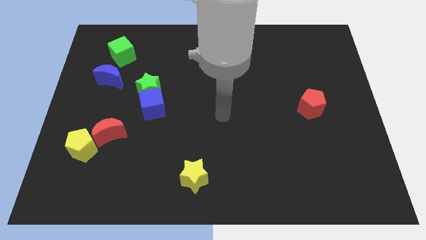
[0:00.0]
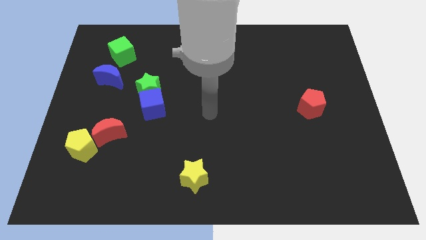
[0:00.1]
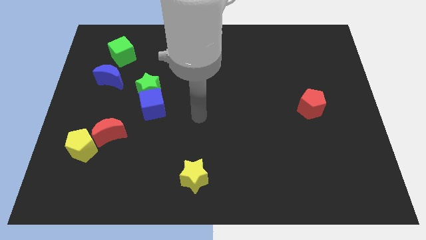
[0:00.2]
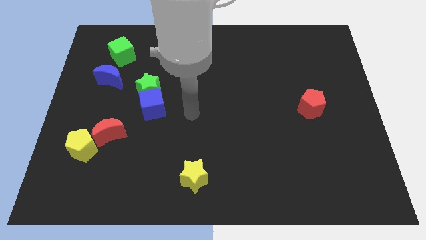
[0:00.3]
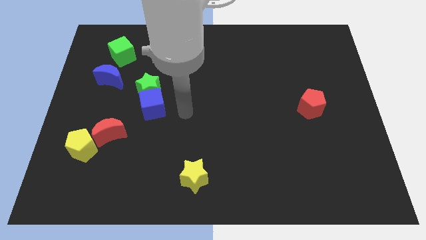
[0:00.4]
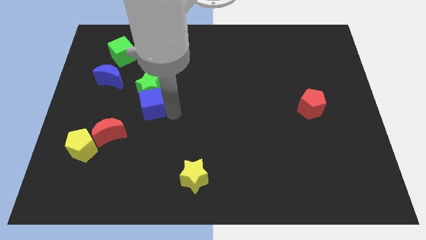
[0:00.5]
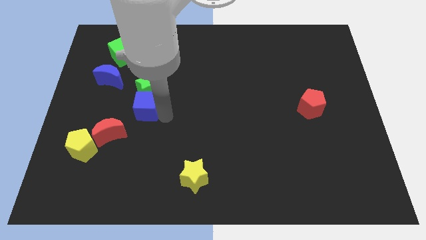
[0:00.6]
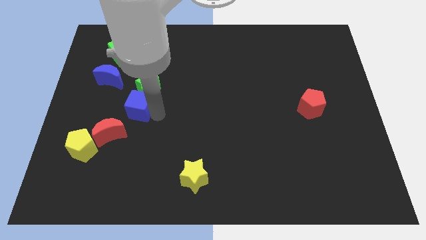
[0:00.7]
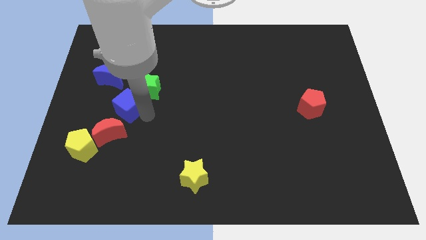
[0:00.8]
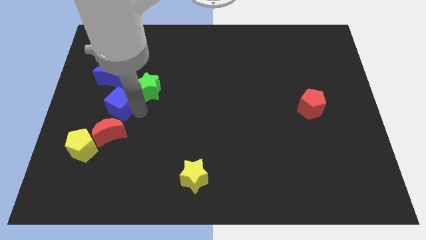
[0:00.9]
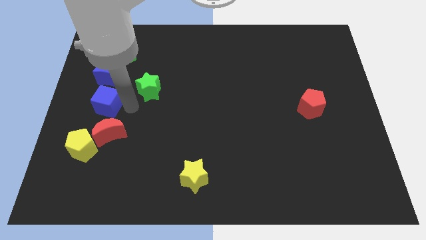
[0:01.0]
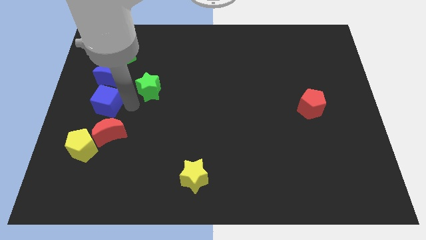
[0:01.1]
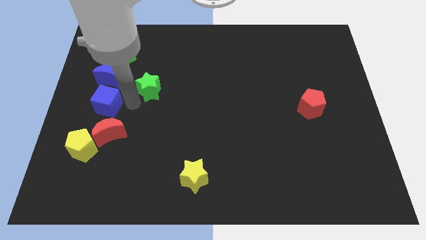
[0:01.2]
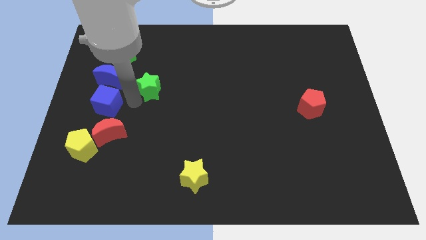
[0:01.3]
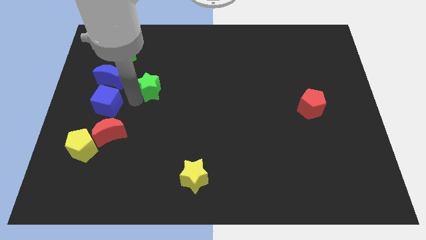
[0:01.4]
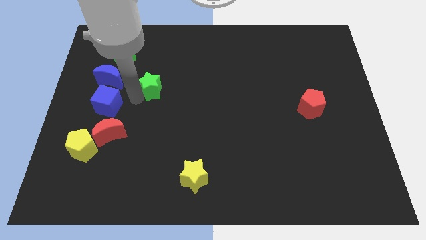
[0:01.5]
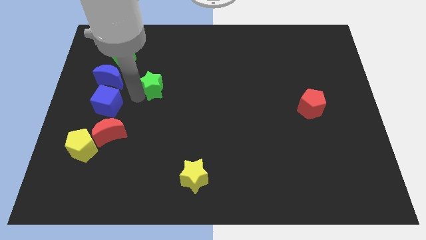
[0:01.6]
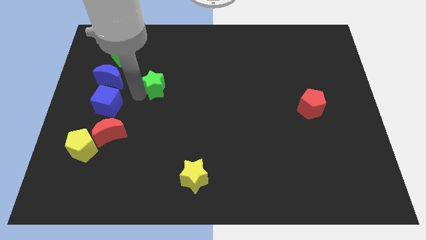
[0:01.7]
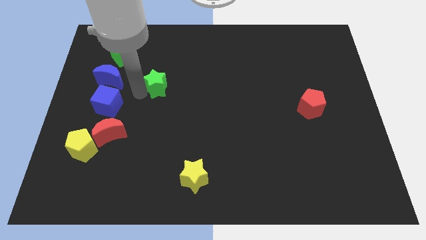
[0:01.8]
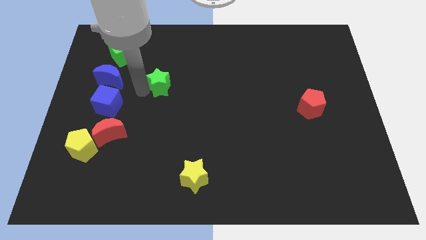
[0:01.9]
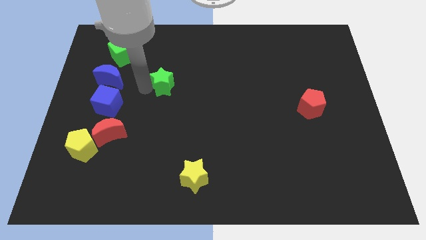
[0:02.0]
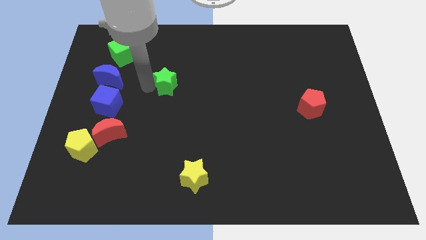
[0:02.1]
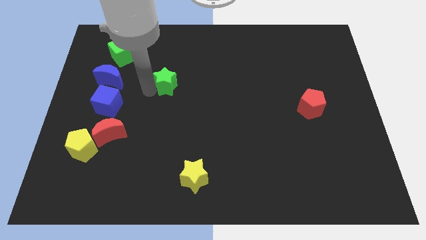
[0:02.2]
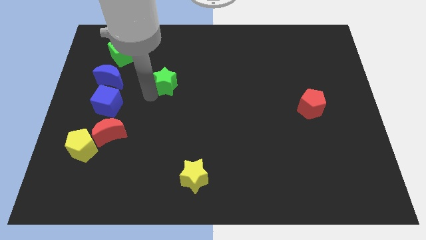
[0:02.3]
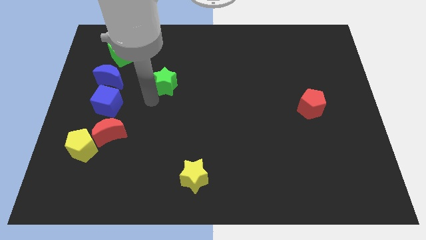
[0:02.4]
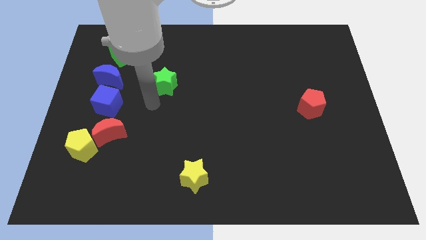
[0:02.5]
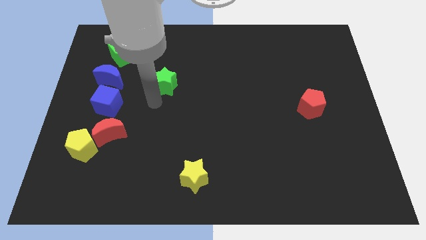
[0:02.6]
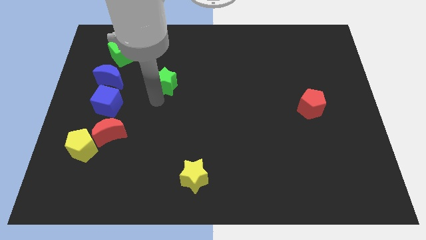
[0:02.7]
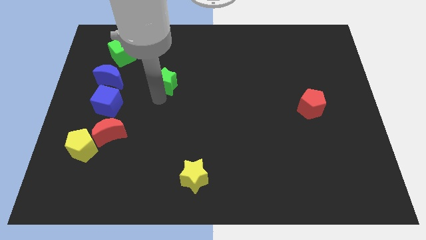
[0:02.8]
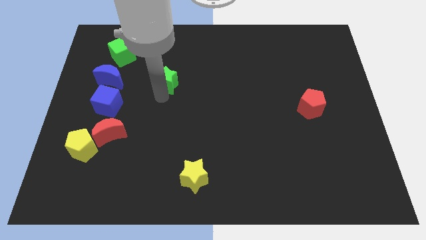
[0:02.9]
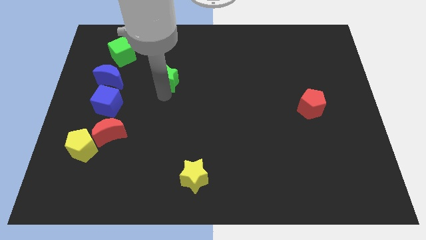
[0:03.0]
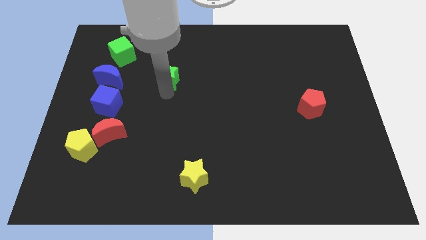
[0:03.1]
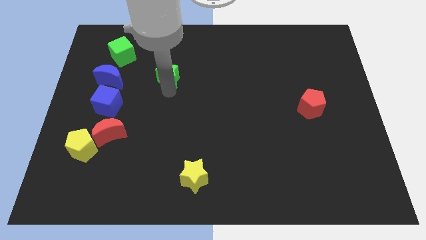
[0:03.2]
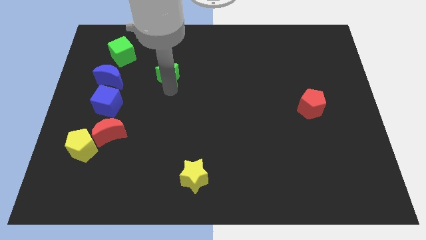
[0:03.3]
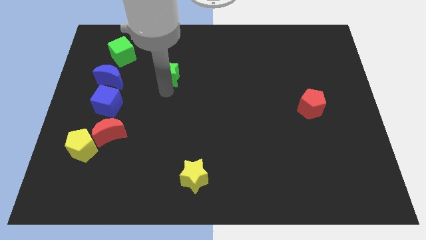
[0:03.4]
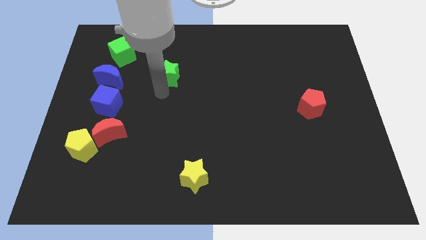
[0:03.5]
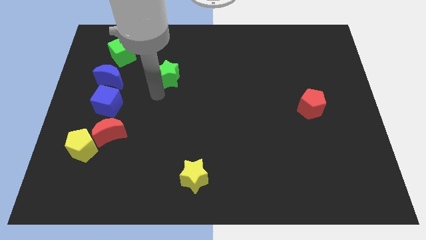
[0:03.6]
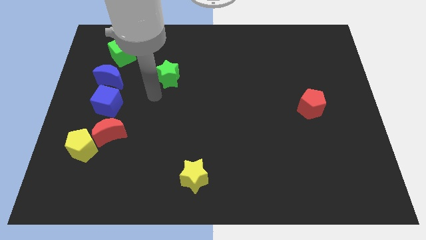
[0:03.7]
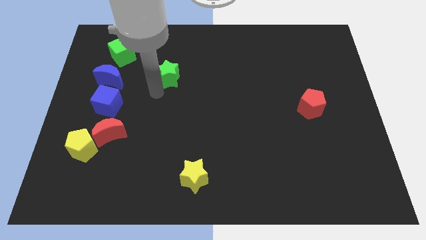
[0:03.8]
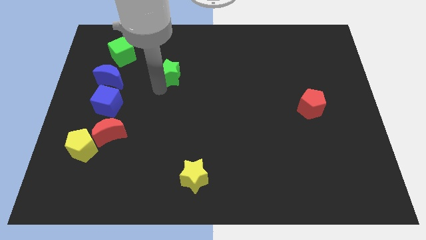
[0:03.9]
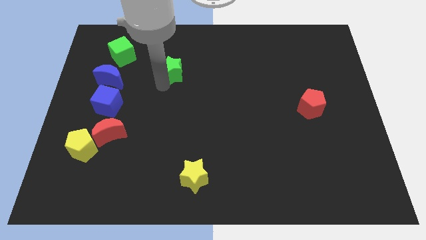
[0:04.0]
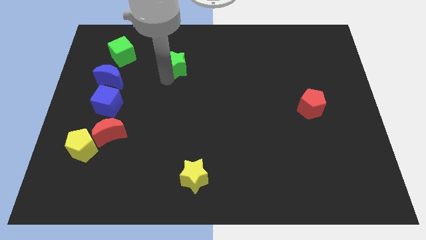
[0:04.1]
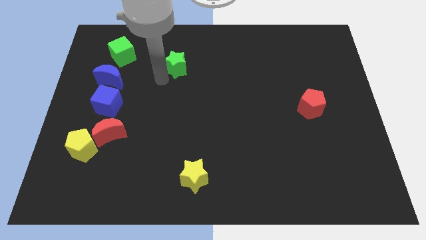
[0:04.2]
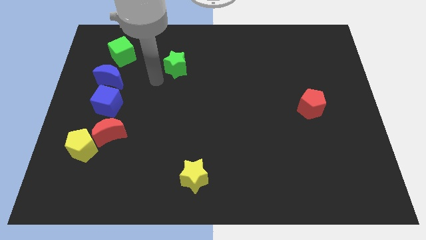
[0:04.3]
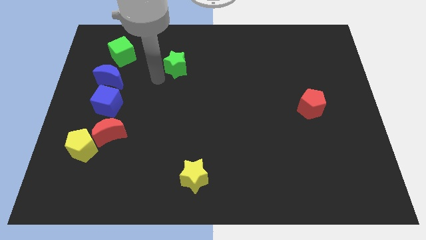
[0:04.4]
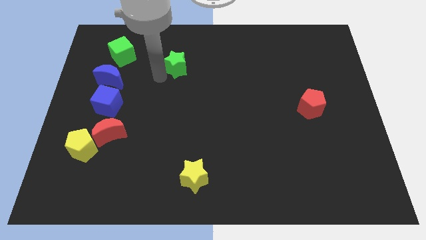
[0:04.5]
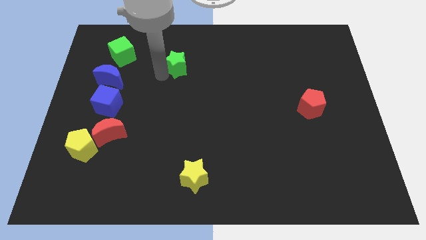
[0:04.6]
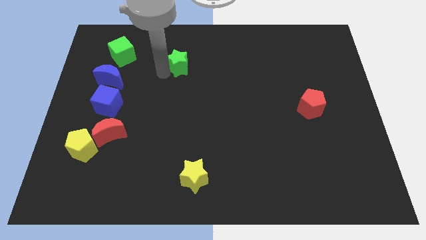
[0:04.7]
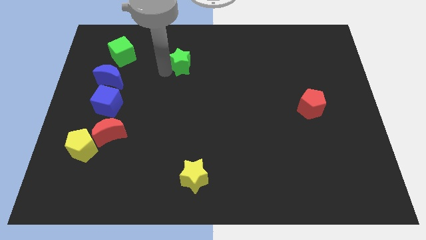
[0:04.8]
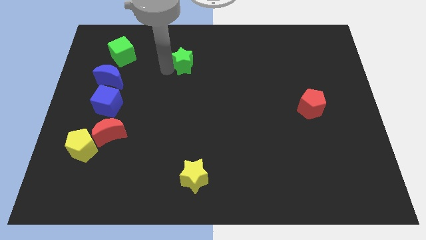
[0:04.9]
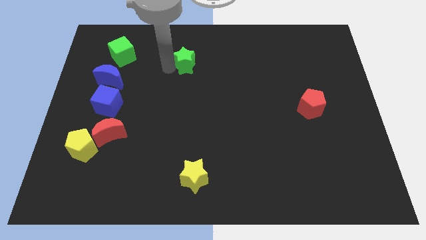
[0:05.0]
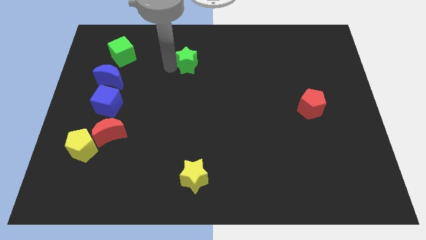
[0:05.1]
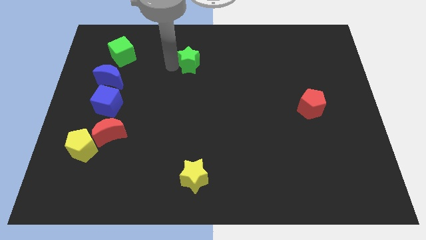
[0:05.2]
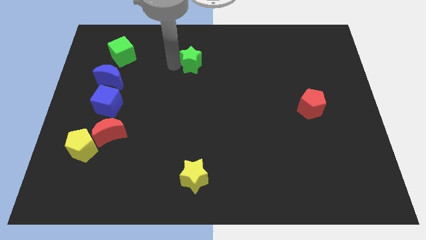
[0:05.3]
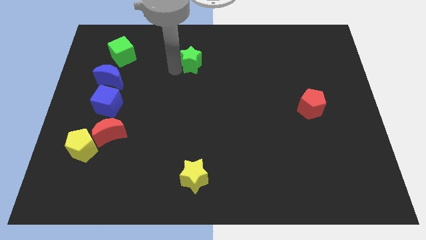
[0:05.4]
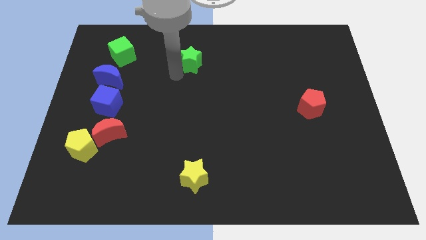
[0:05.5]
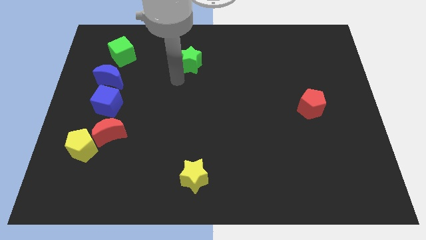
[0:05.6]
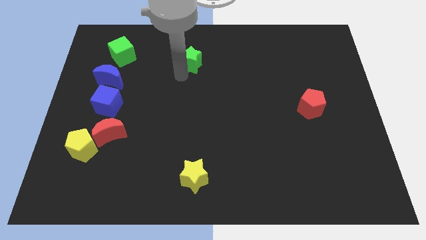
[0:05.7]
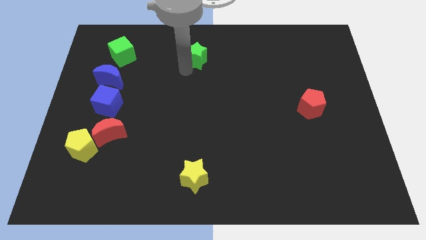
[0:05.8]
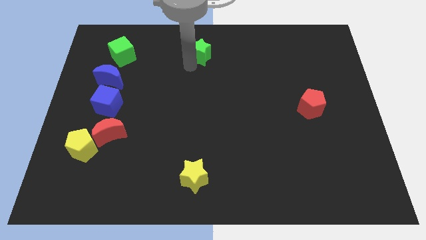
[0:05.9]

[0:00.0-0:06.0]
put the green star to the towards your base

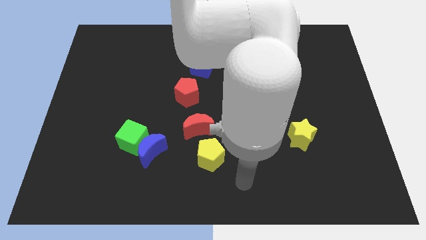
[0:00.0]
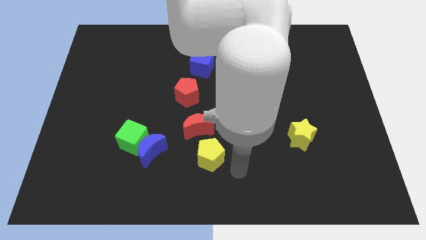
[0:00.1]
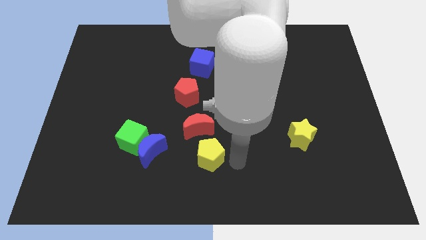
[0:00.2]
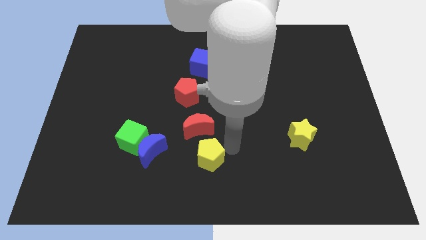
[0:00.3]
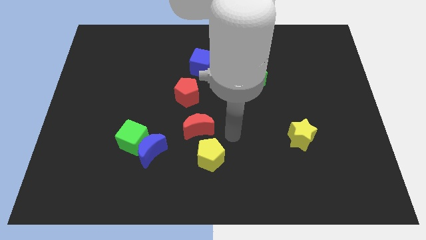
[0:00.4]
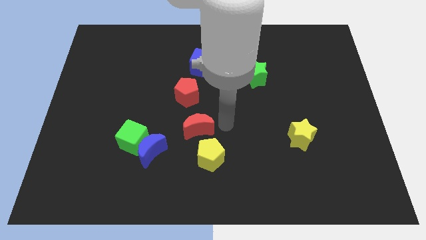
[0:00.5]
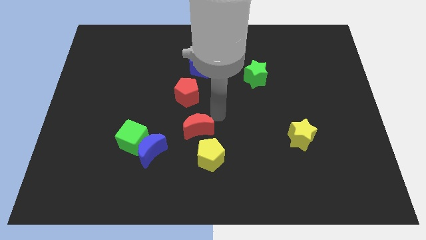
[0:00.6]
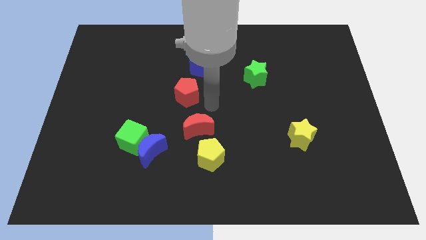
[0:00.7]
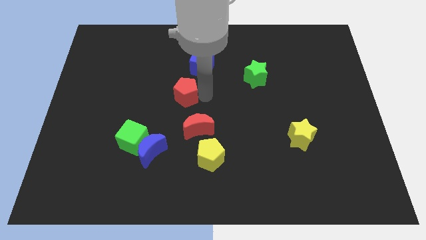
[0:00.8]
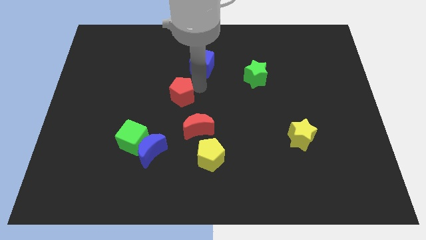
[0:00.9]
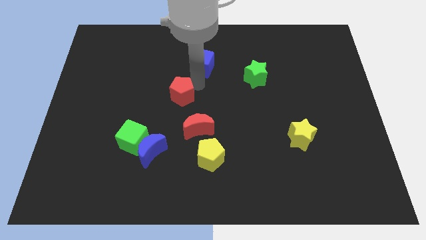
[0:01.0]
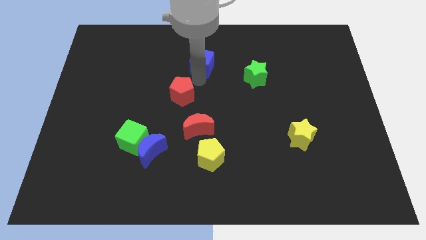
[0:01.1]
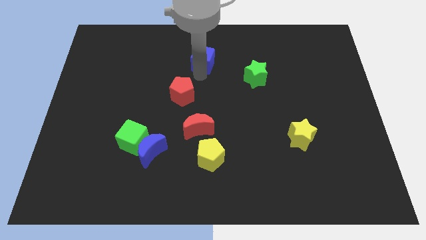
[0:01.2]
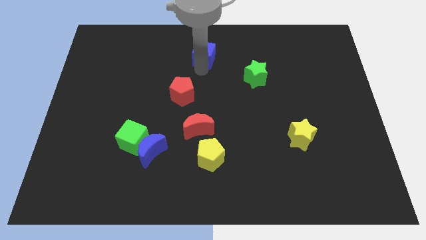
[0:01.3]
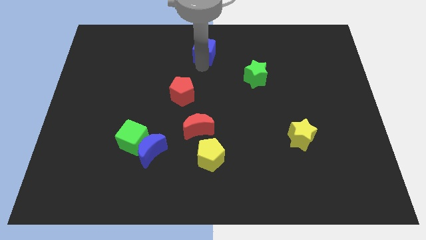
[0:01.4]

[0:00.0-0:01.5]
push the blue cube to the towards your base

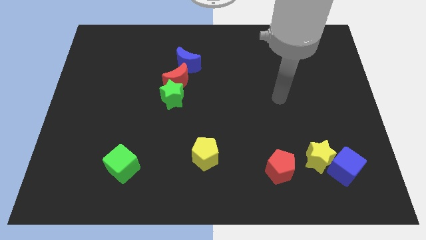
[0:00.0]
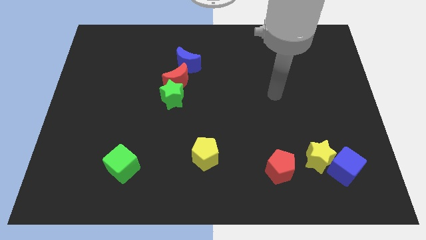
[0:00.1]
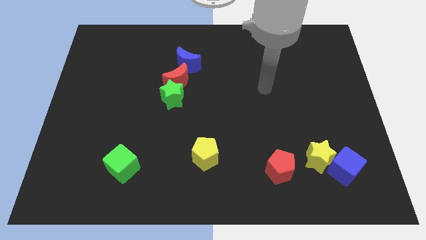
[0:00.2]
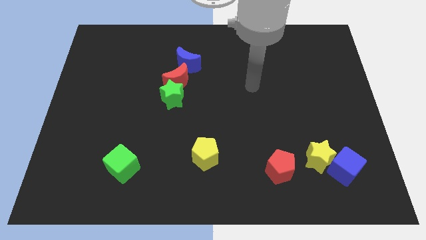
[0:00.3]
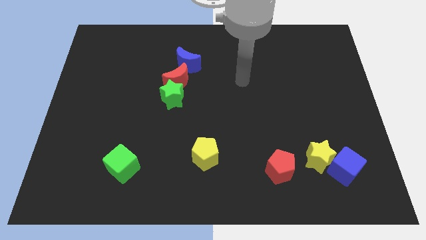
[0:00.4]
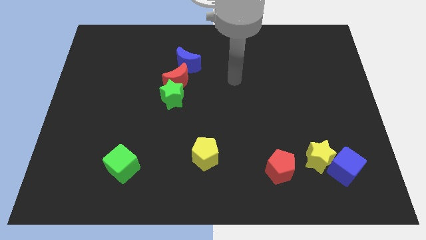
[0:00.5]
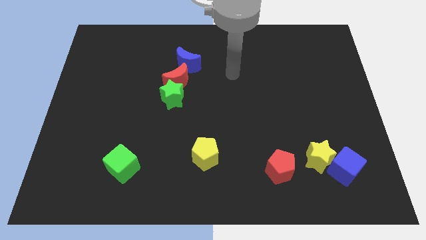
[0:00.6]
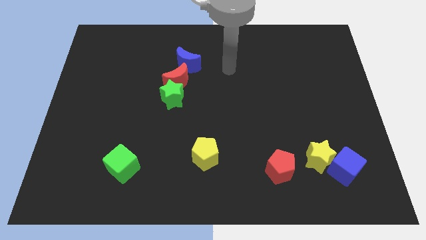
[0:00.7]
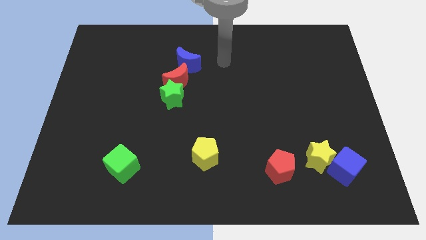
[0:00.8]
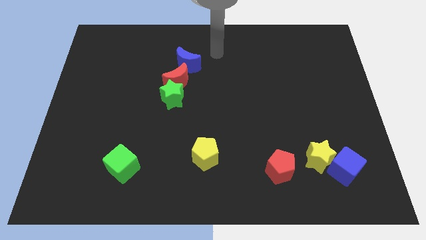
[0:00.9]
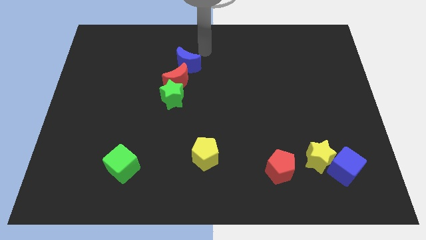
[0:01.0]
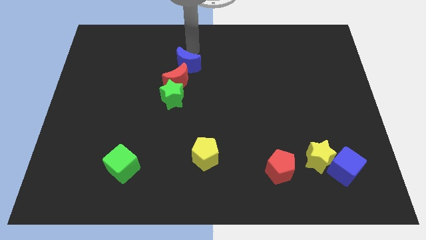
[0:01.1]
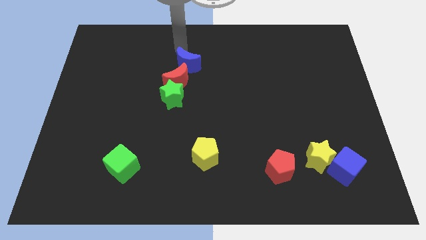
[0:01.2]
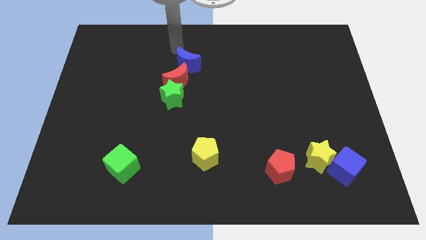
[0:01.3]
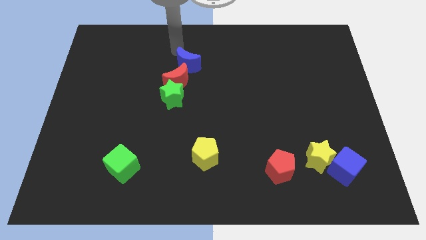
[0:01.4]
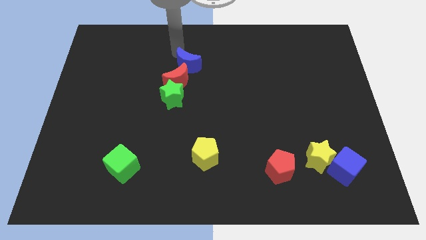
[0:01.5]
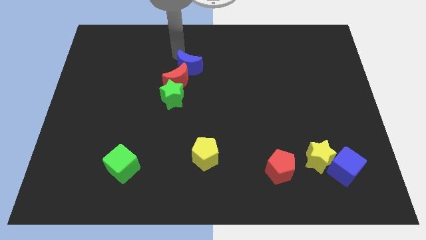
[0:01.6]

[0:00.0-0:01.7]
slide the blue moon to the middle
